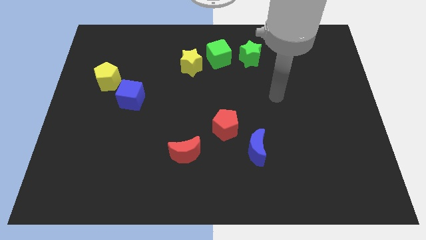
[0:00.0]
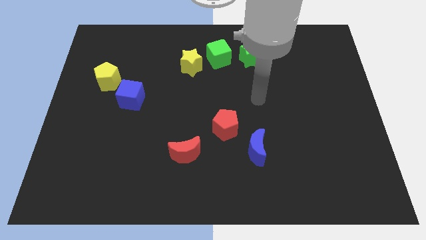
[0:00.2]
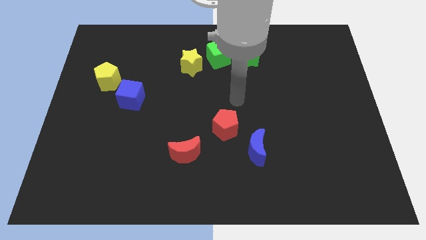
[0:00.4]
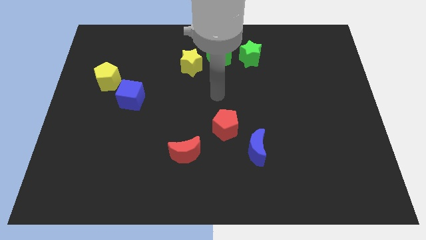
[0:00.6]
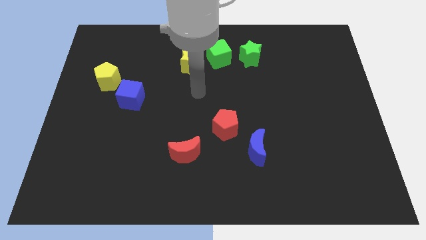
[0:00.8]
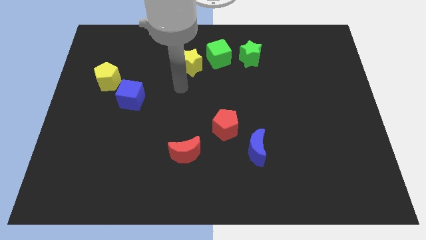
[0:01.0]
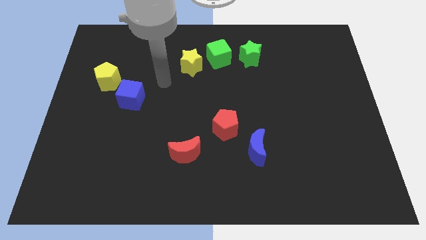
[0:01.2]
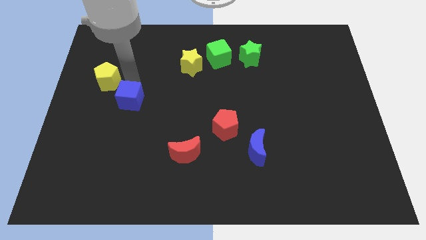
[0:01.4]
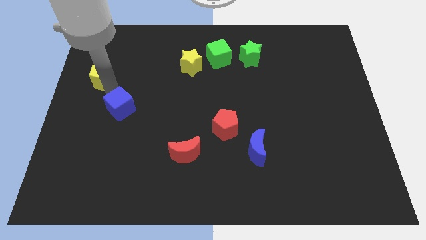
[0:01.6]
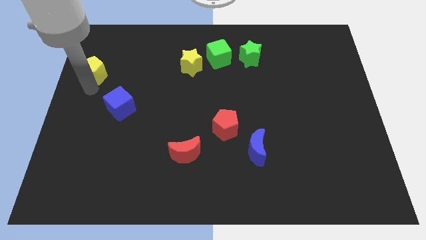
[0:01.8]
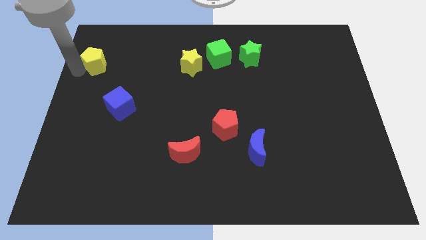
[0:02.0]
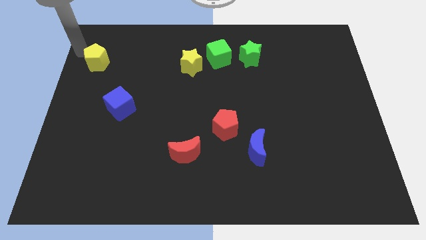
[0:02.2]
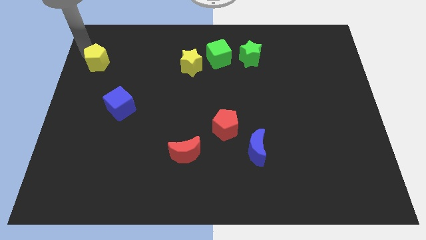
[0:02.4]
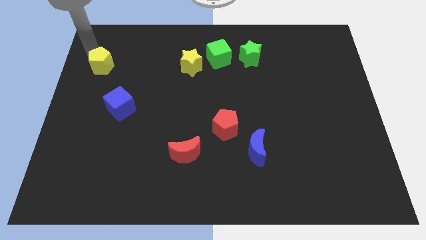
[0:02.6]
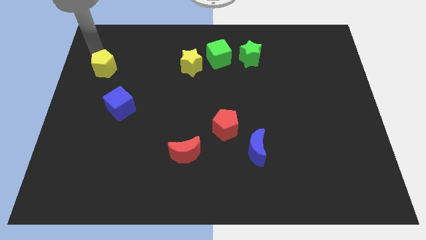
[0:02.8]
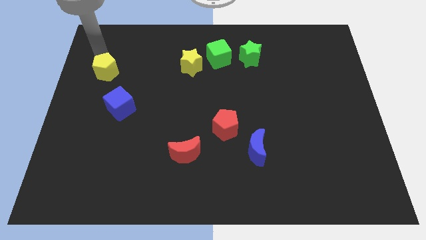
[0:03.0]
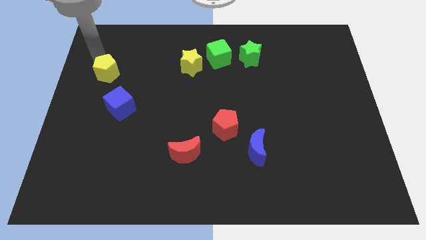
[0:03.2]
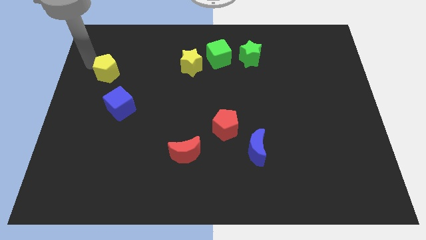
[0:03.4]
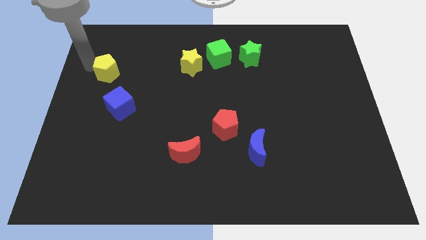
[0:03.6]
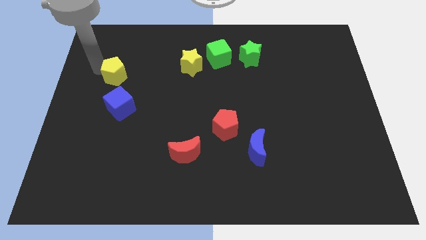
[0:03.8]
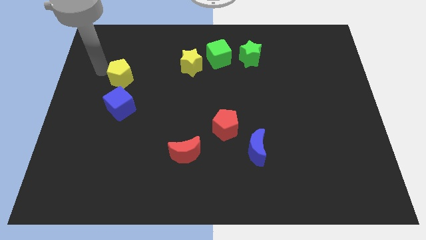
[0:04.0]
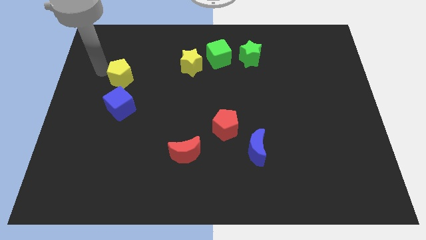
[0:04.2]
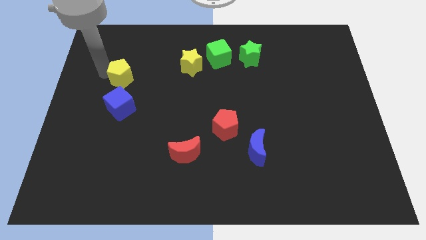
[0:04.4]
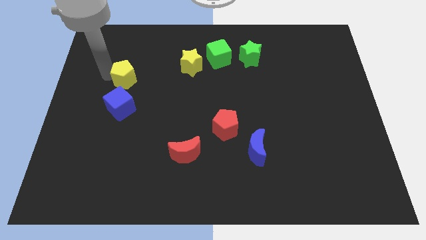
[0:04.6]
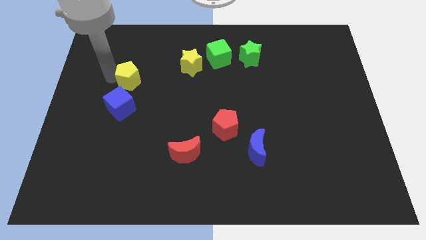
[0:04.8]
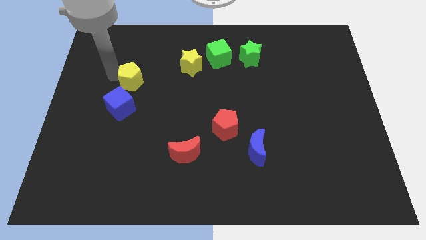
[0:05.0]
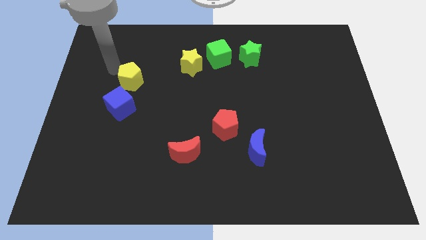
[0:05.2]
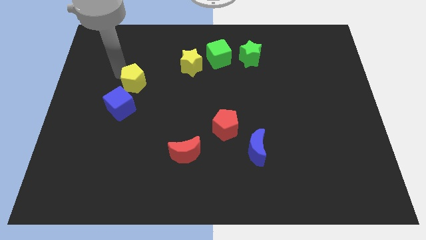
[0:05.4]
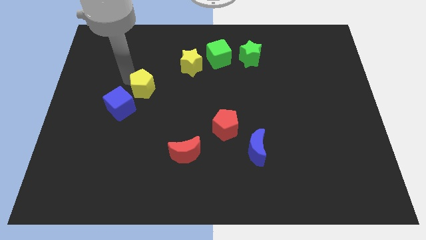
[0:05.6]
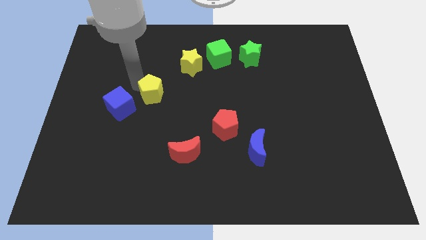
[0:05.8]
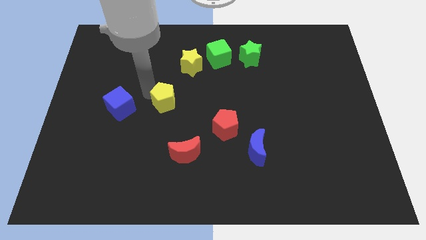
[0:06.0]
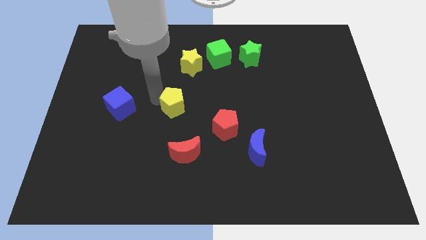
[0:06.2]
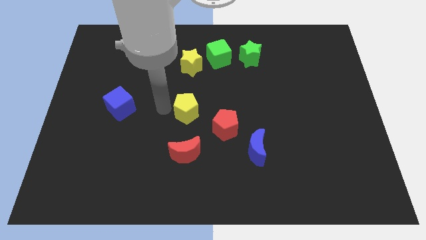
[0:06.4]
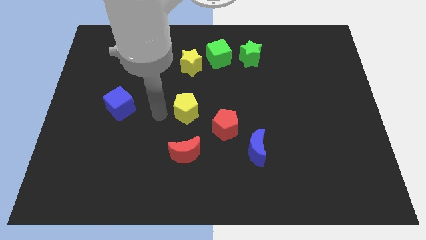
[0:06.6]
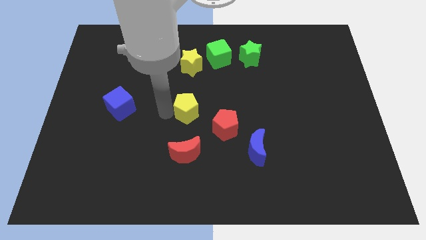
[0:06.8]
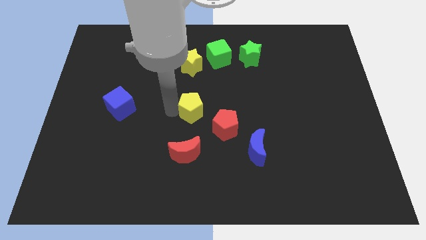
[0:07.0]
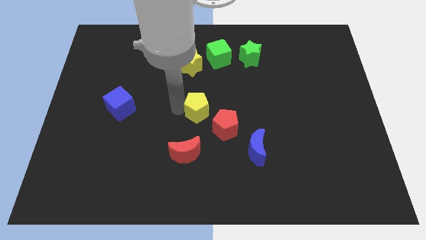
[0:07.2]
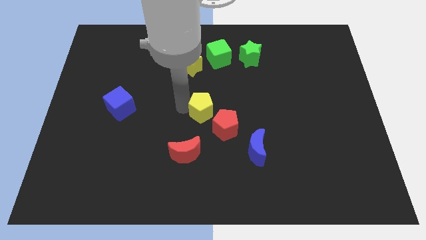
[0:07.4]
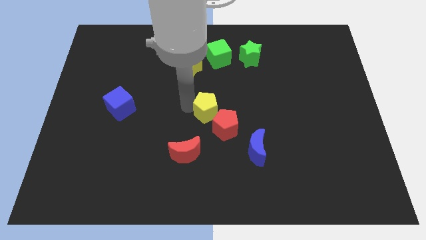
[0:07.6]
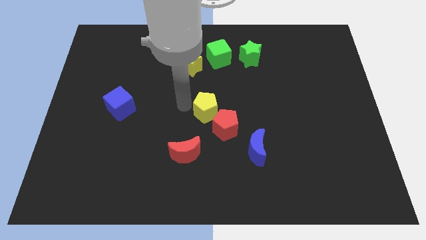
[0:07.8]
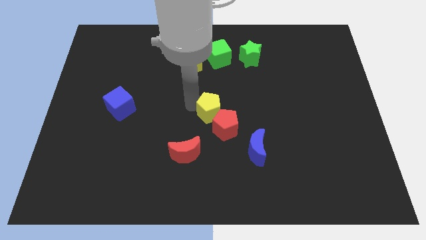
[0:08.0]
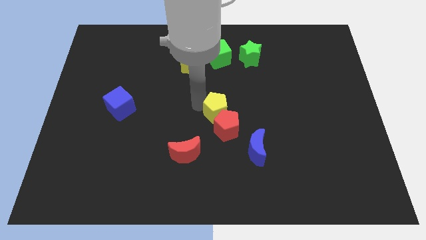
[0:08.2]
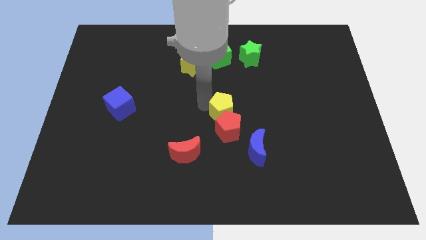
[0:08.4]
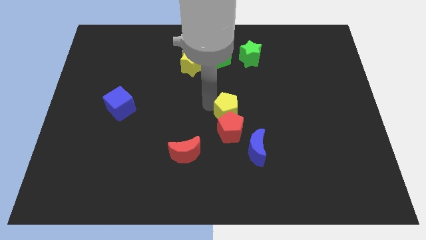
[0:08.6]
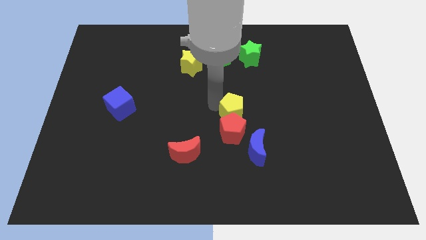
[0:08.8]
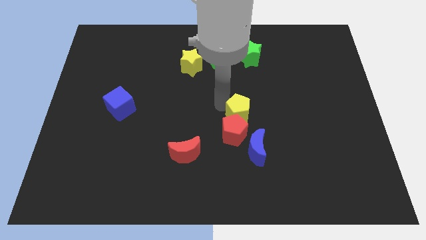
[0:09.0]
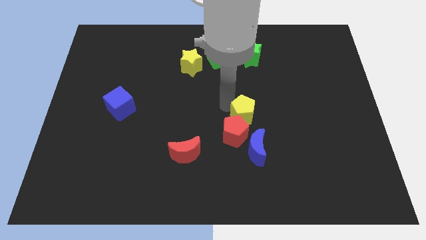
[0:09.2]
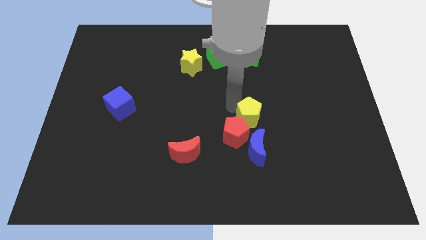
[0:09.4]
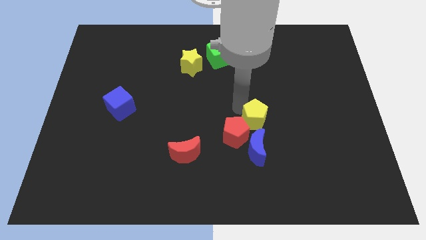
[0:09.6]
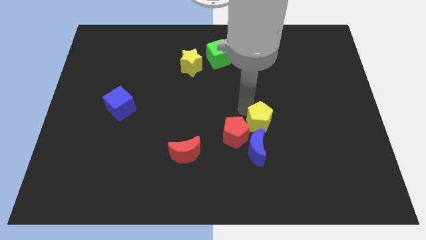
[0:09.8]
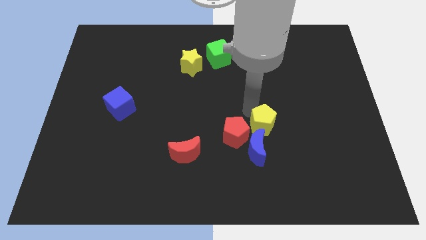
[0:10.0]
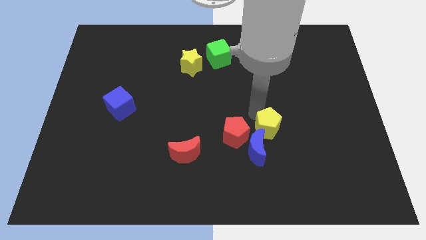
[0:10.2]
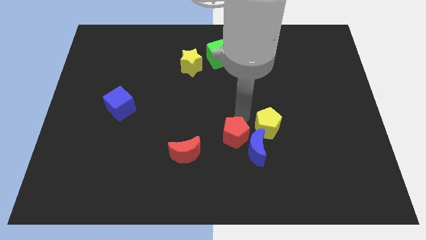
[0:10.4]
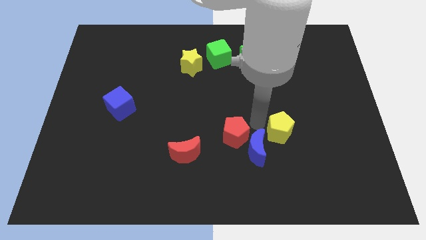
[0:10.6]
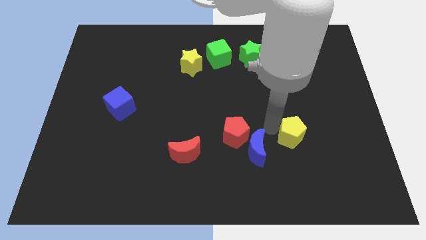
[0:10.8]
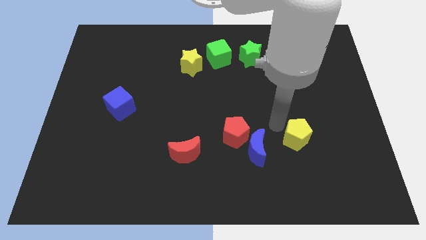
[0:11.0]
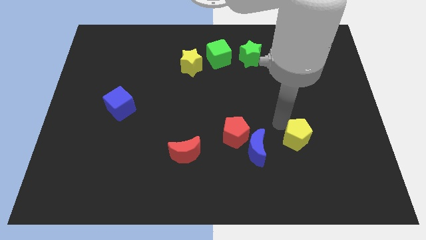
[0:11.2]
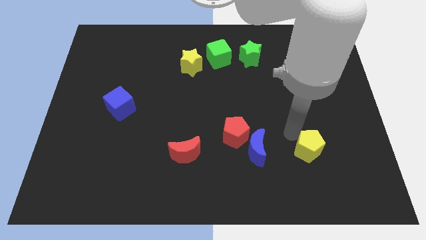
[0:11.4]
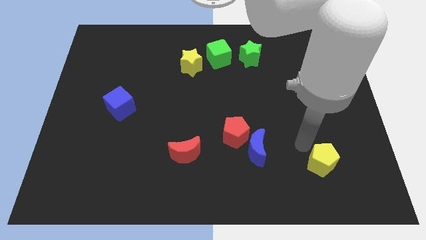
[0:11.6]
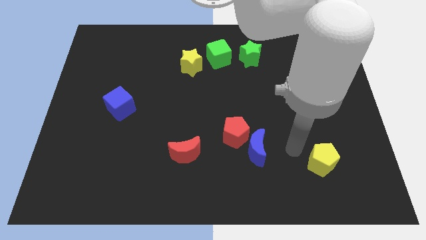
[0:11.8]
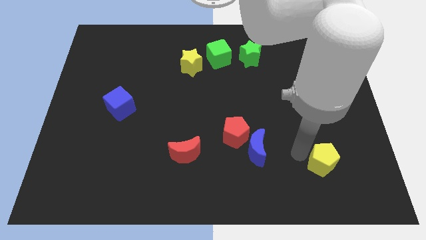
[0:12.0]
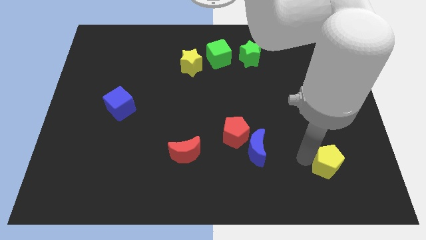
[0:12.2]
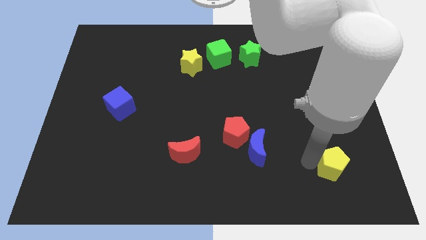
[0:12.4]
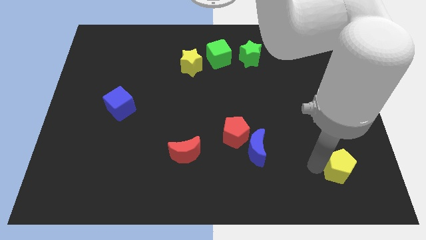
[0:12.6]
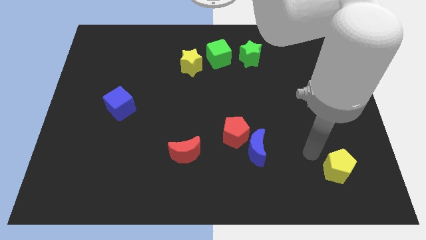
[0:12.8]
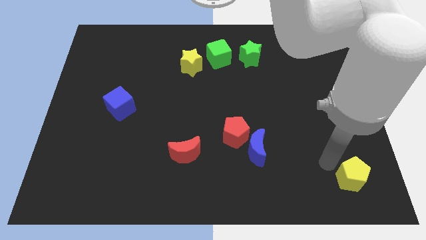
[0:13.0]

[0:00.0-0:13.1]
push the yellow pentagon to the bottom right of the board
